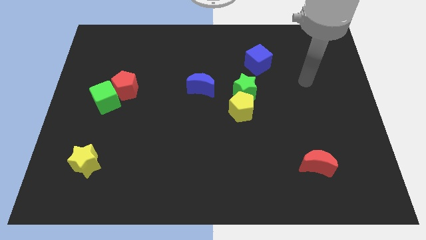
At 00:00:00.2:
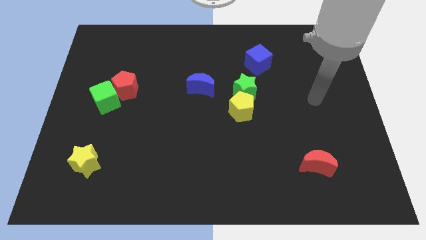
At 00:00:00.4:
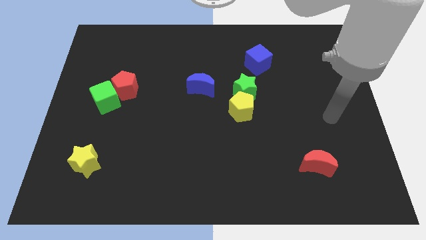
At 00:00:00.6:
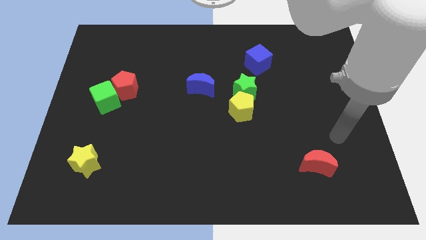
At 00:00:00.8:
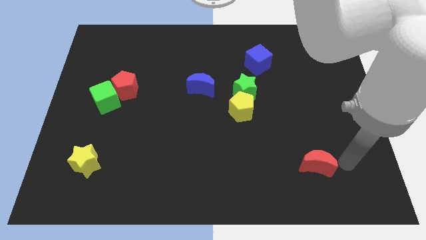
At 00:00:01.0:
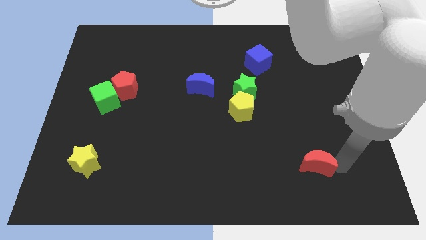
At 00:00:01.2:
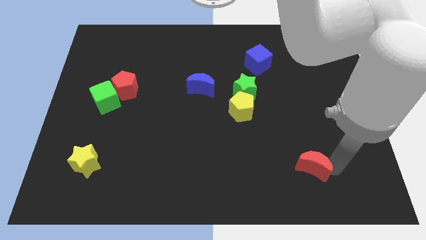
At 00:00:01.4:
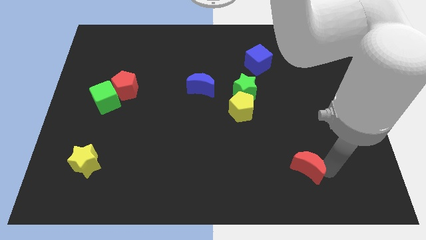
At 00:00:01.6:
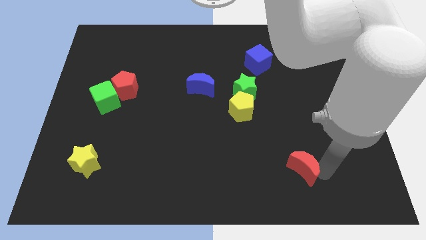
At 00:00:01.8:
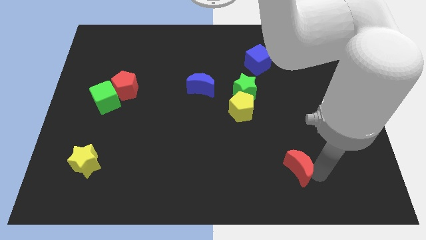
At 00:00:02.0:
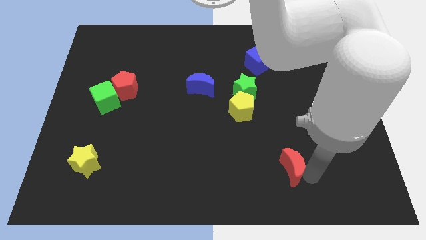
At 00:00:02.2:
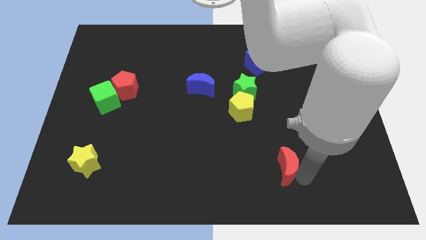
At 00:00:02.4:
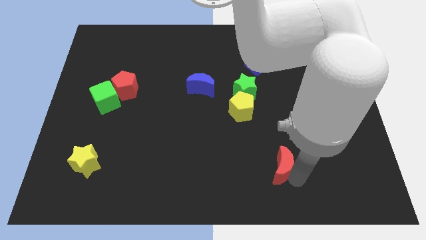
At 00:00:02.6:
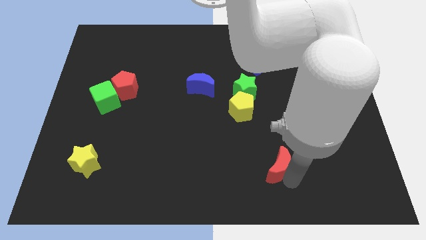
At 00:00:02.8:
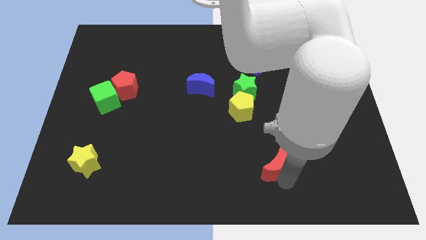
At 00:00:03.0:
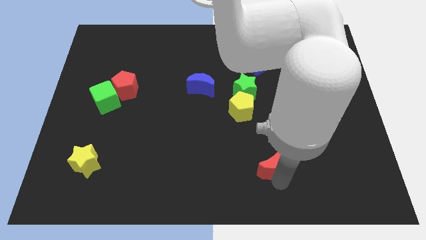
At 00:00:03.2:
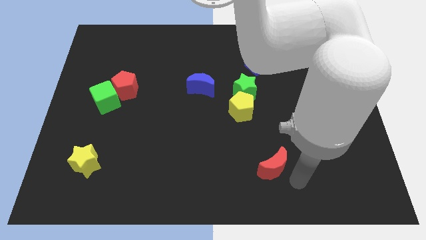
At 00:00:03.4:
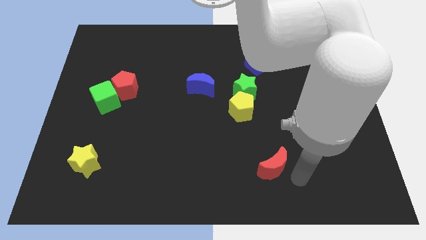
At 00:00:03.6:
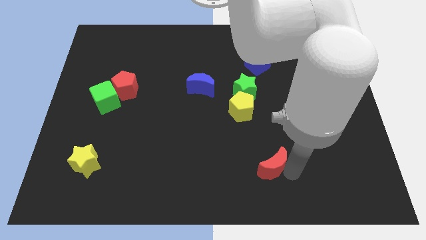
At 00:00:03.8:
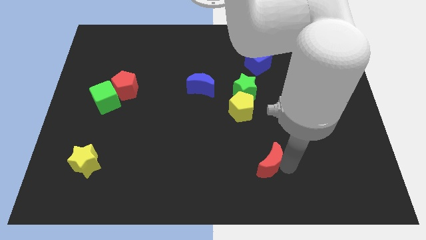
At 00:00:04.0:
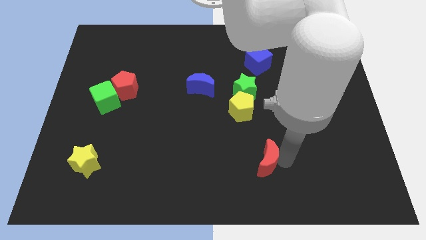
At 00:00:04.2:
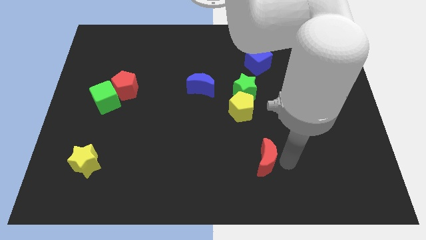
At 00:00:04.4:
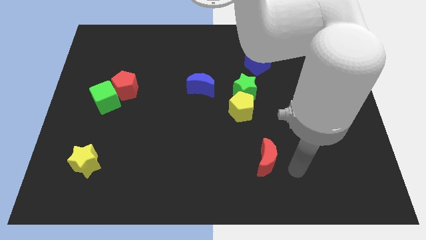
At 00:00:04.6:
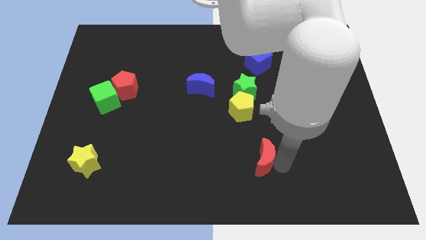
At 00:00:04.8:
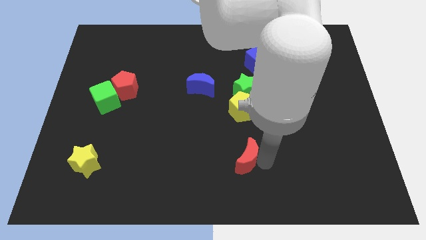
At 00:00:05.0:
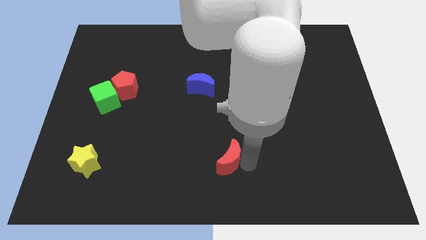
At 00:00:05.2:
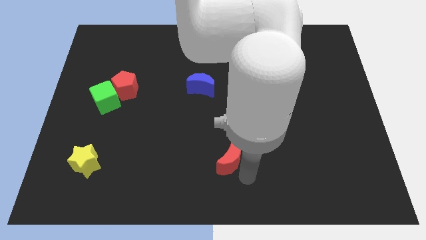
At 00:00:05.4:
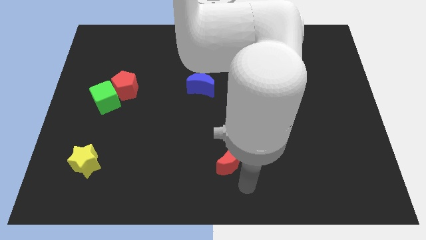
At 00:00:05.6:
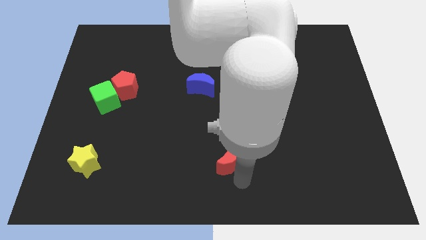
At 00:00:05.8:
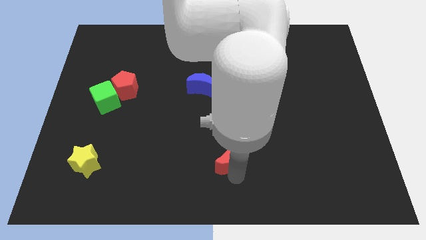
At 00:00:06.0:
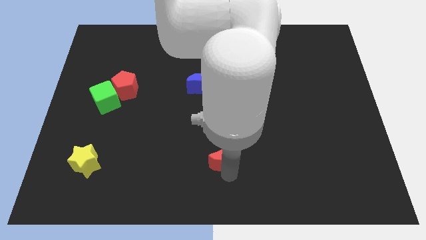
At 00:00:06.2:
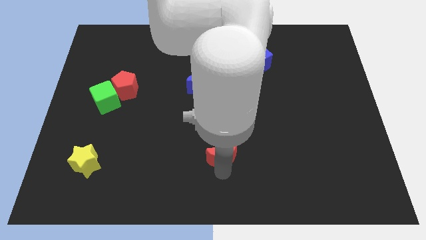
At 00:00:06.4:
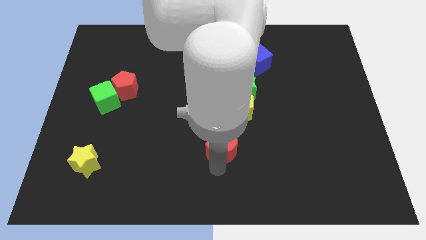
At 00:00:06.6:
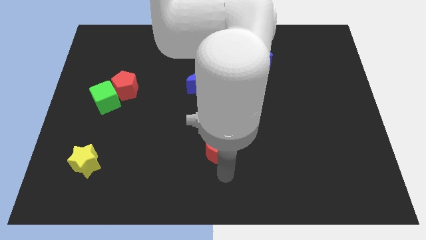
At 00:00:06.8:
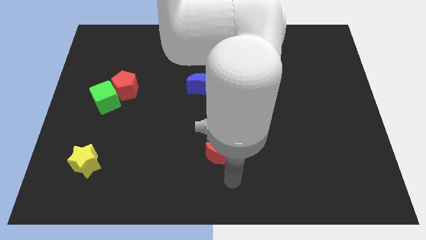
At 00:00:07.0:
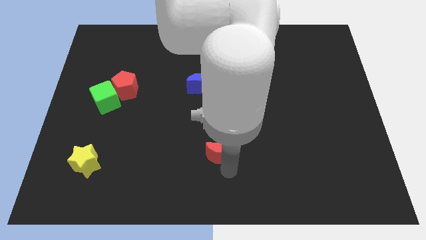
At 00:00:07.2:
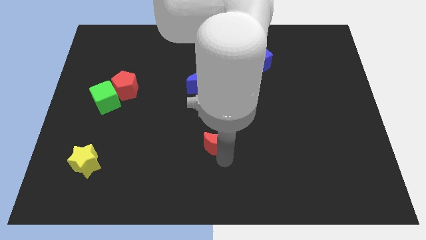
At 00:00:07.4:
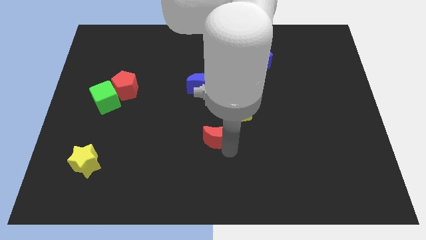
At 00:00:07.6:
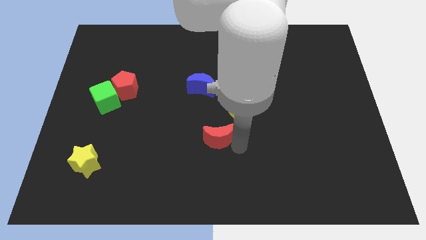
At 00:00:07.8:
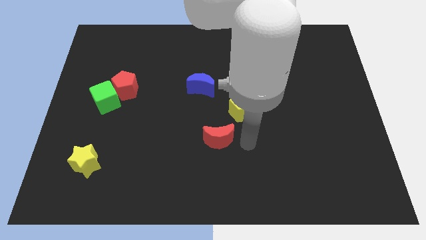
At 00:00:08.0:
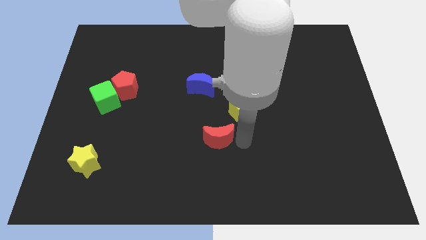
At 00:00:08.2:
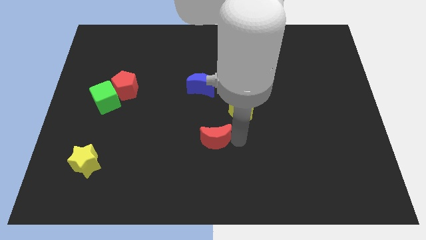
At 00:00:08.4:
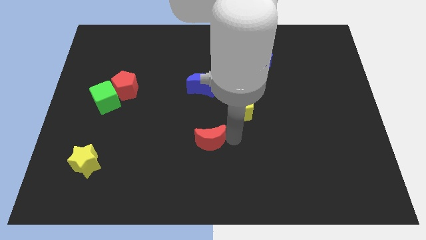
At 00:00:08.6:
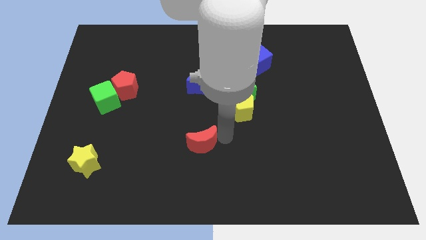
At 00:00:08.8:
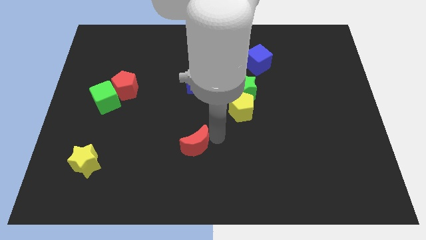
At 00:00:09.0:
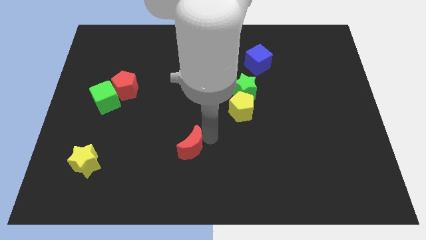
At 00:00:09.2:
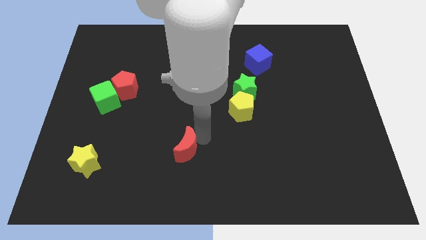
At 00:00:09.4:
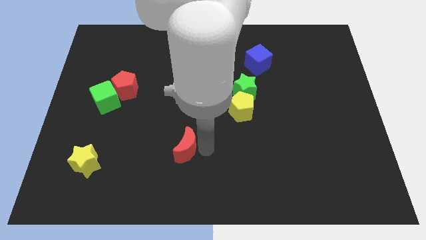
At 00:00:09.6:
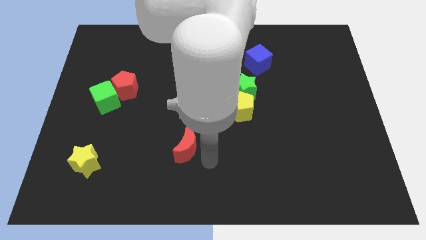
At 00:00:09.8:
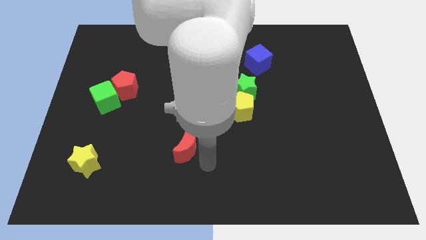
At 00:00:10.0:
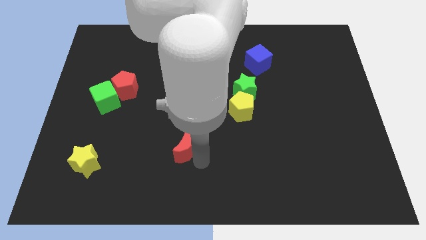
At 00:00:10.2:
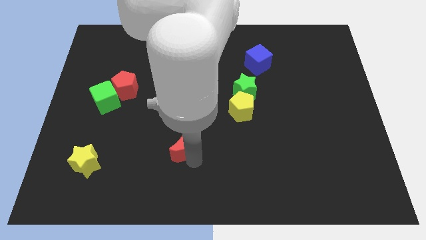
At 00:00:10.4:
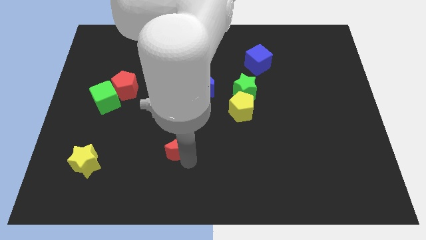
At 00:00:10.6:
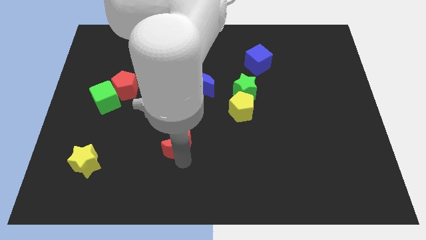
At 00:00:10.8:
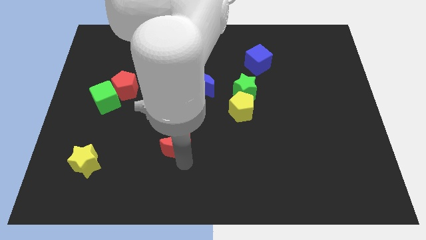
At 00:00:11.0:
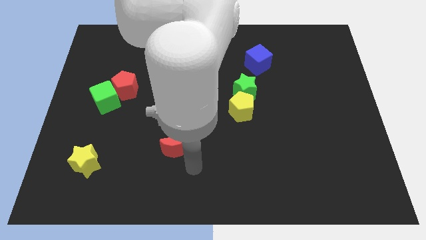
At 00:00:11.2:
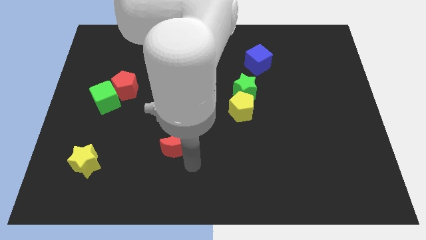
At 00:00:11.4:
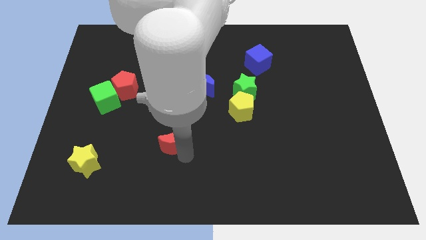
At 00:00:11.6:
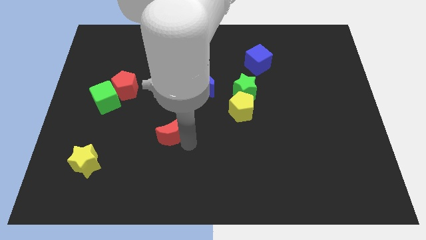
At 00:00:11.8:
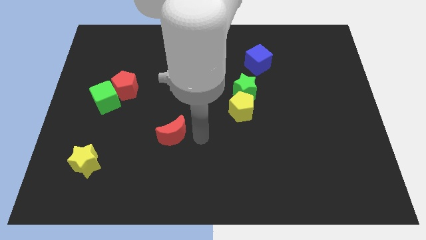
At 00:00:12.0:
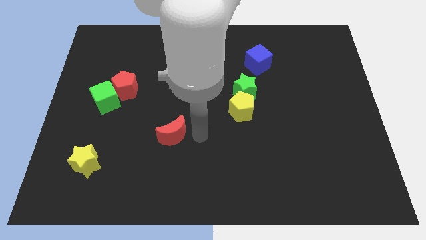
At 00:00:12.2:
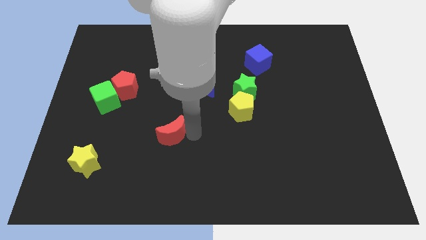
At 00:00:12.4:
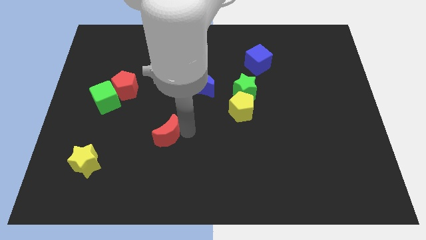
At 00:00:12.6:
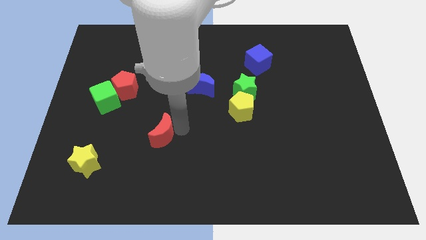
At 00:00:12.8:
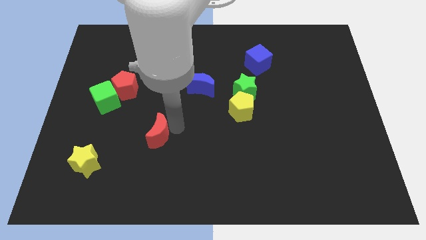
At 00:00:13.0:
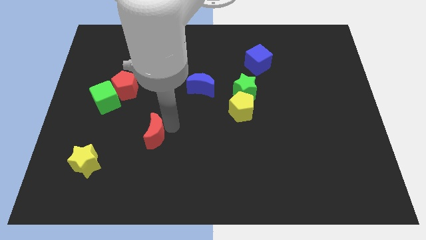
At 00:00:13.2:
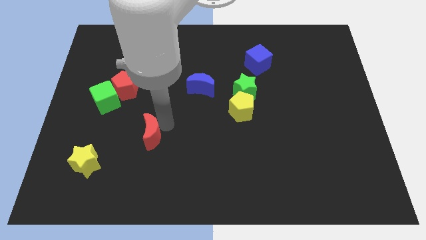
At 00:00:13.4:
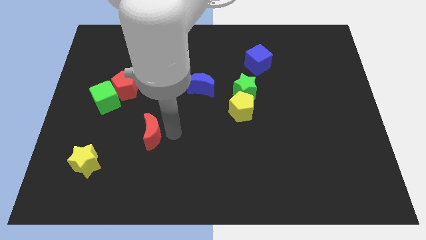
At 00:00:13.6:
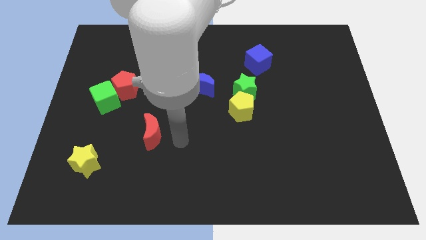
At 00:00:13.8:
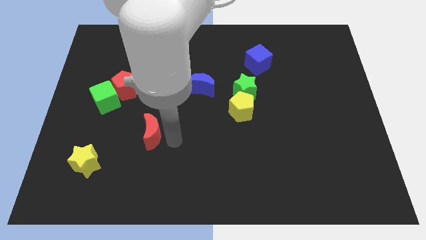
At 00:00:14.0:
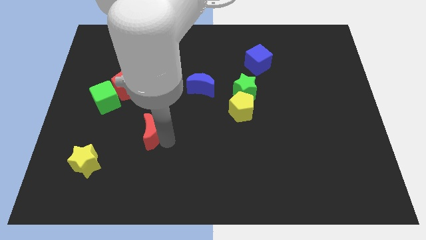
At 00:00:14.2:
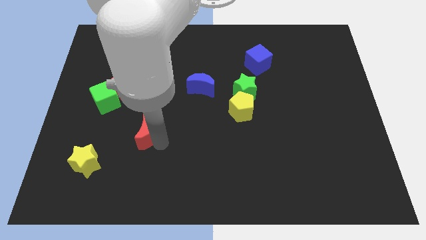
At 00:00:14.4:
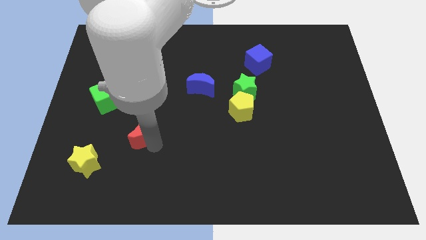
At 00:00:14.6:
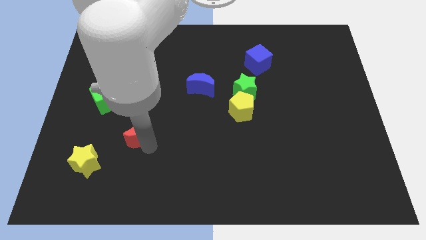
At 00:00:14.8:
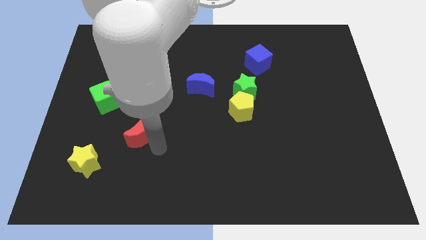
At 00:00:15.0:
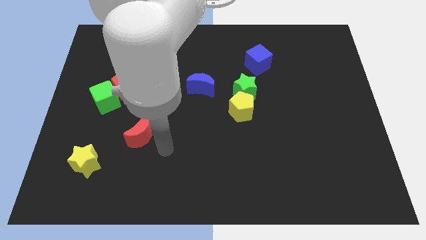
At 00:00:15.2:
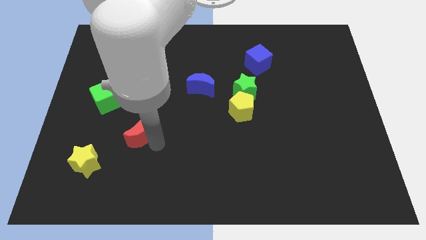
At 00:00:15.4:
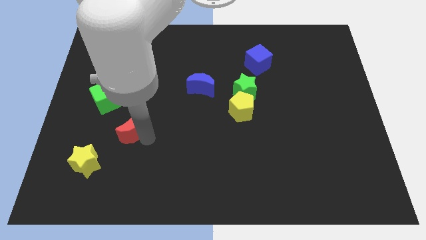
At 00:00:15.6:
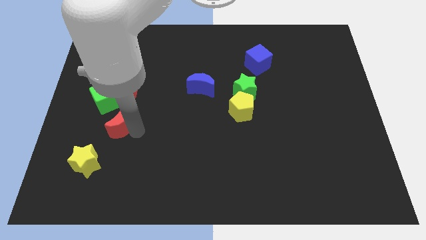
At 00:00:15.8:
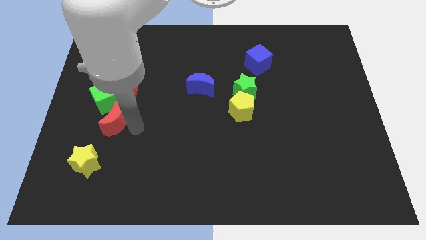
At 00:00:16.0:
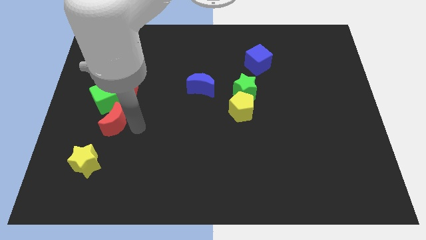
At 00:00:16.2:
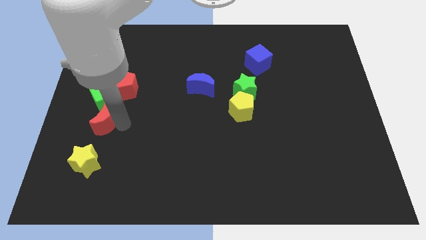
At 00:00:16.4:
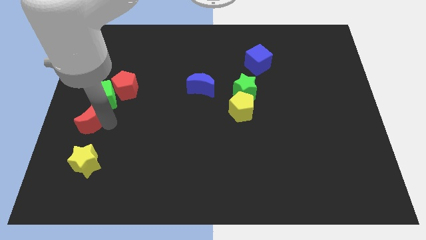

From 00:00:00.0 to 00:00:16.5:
slide the red moon to the left side
